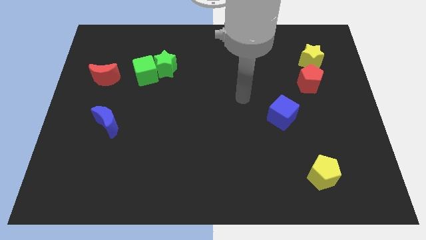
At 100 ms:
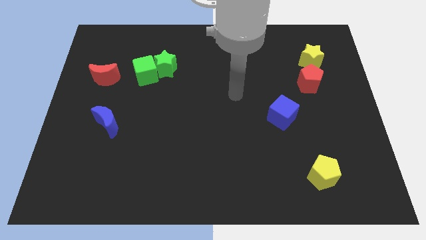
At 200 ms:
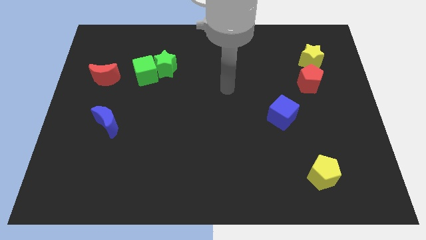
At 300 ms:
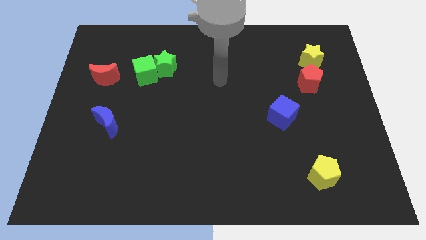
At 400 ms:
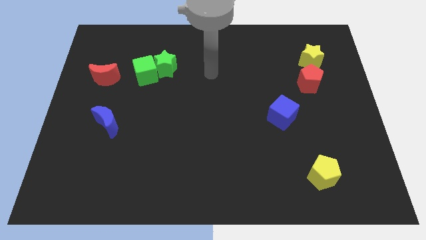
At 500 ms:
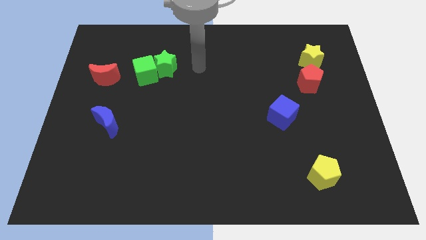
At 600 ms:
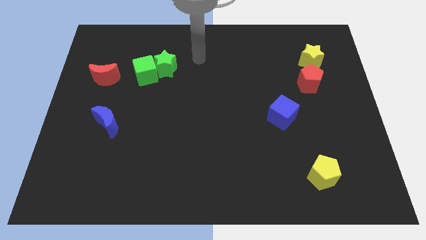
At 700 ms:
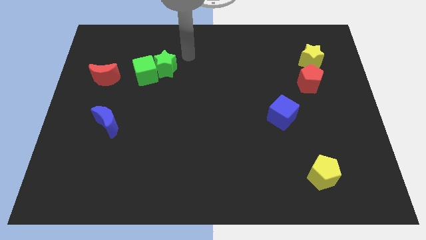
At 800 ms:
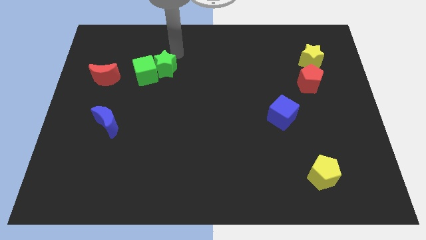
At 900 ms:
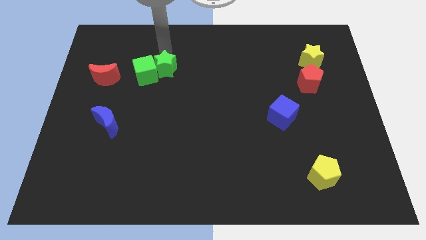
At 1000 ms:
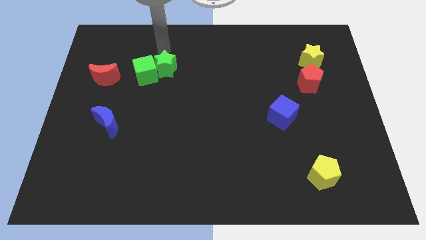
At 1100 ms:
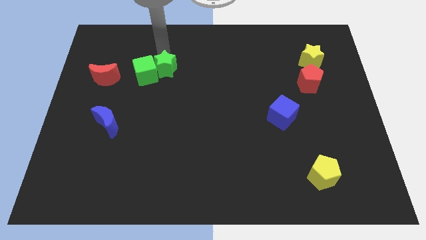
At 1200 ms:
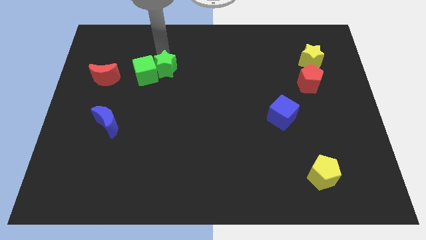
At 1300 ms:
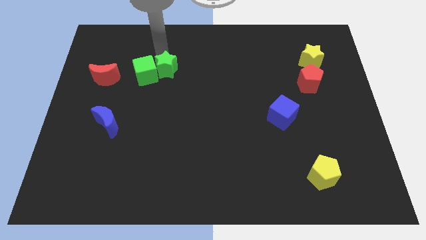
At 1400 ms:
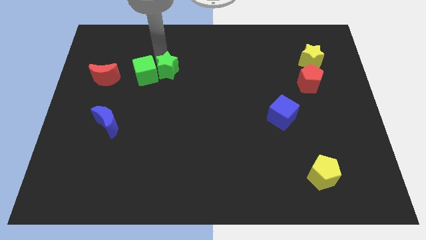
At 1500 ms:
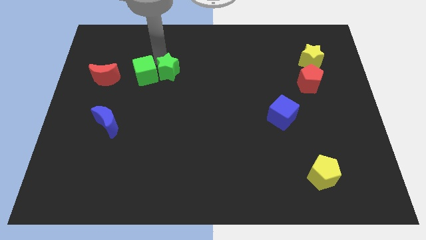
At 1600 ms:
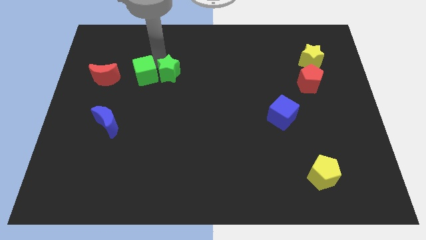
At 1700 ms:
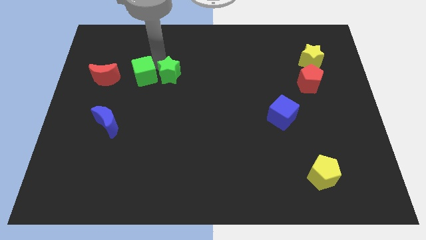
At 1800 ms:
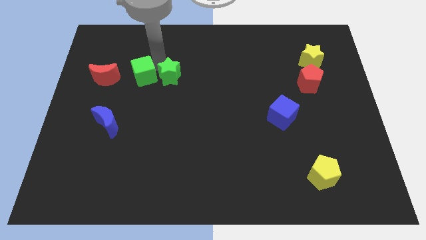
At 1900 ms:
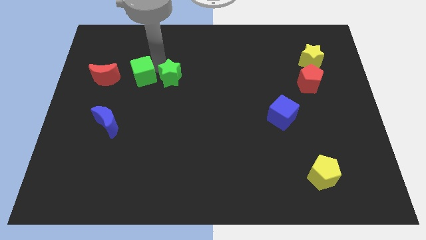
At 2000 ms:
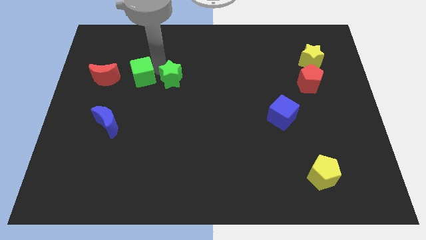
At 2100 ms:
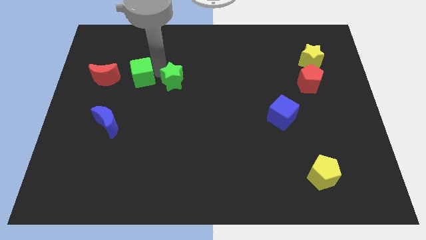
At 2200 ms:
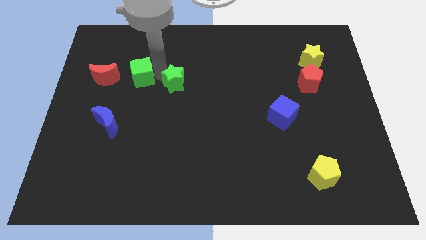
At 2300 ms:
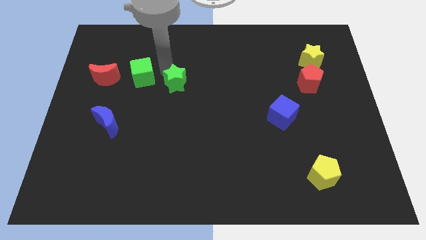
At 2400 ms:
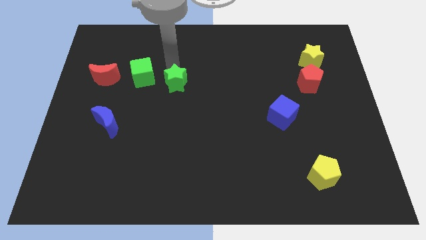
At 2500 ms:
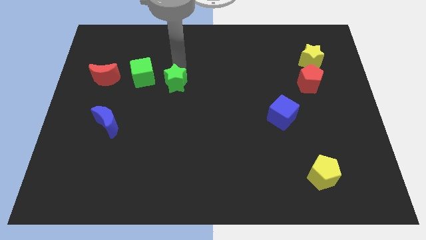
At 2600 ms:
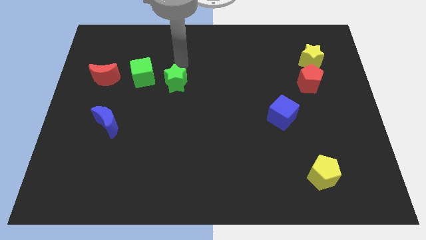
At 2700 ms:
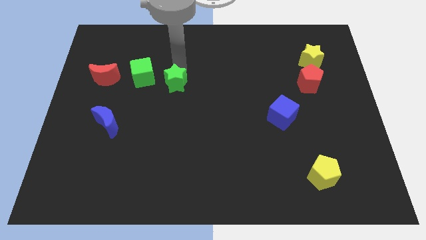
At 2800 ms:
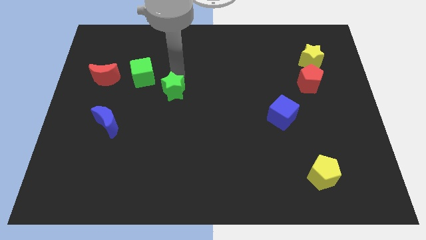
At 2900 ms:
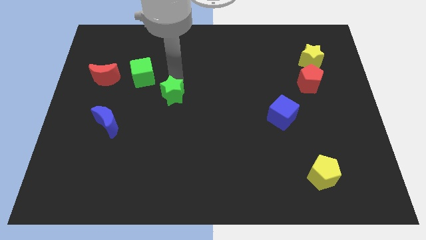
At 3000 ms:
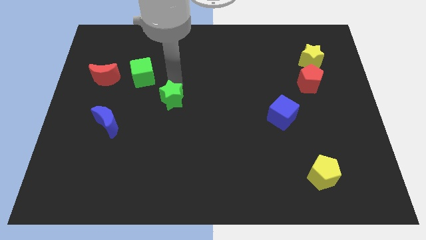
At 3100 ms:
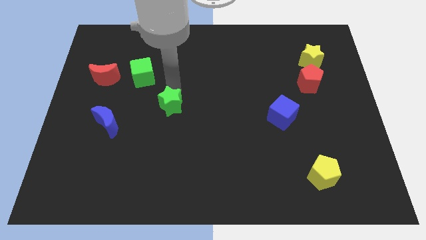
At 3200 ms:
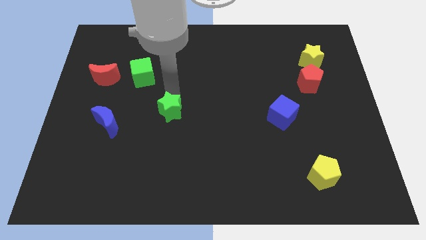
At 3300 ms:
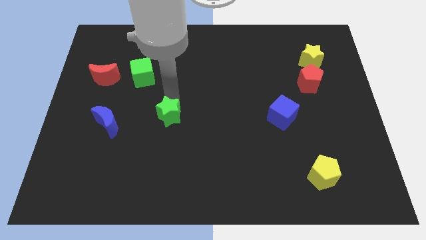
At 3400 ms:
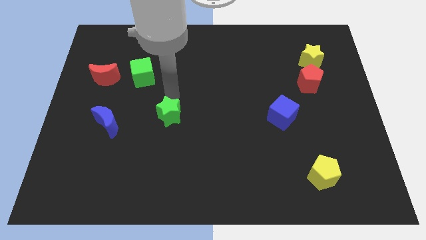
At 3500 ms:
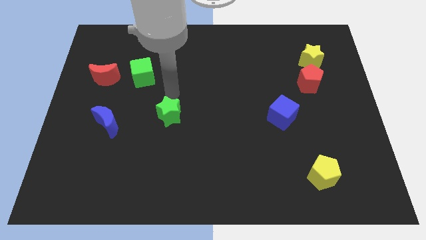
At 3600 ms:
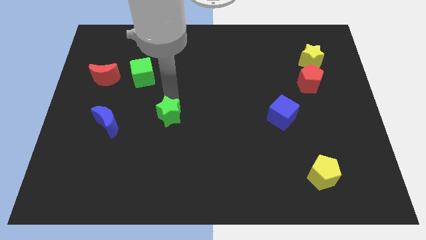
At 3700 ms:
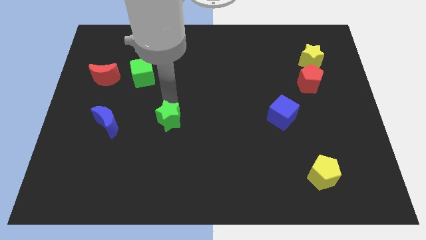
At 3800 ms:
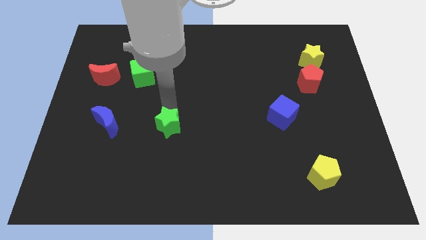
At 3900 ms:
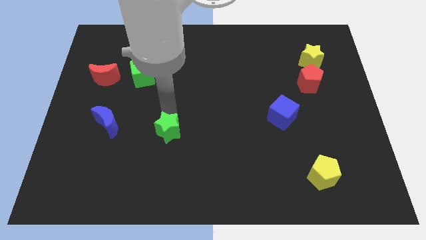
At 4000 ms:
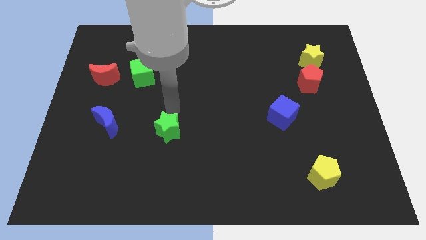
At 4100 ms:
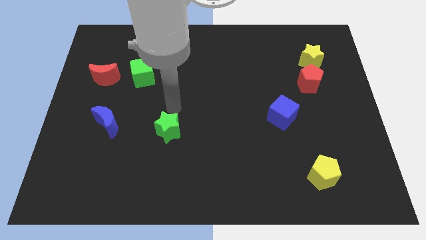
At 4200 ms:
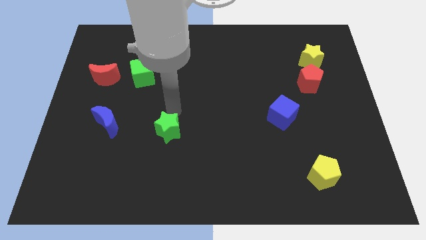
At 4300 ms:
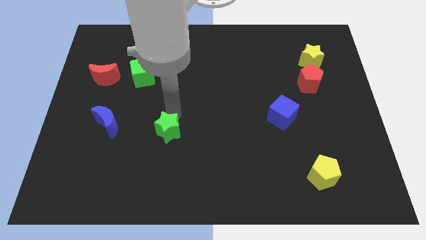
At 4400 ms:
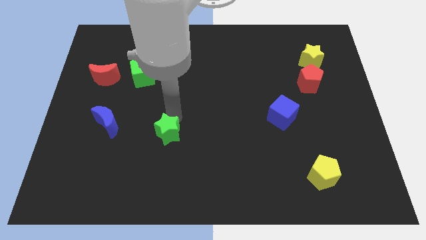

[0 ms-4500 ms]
slide the green star downwards

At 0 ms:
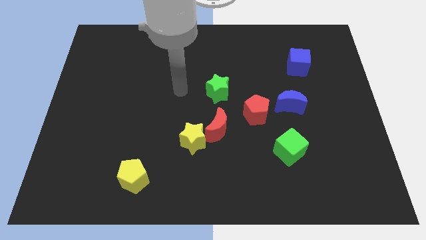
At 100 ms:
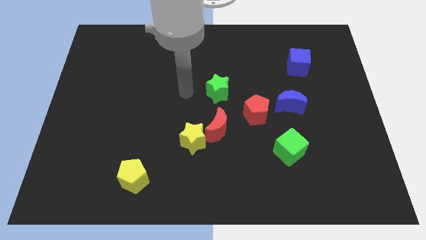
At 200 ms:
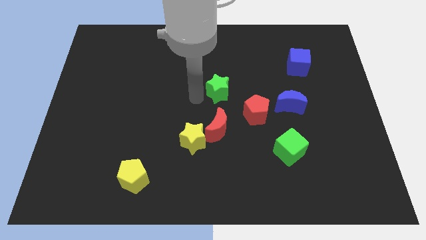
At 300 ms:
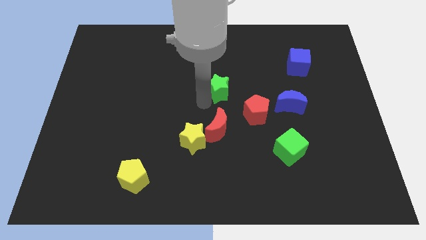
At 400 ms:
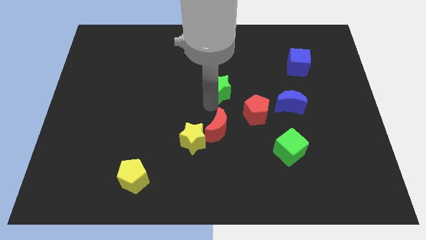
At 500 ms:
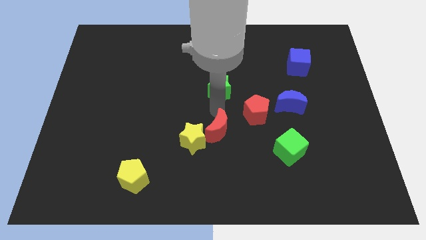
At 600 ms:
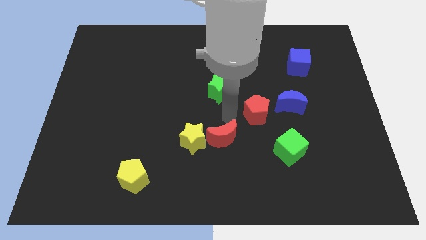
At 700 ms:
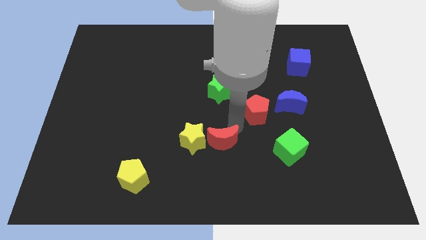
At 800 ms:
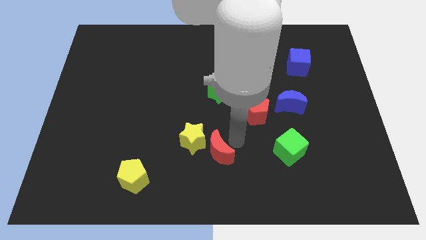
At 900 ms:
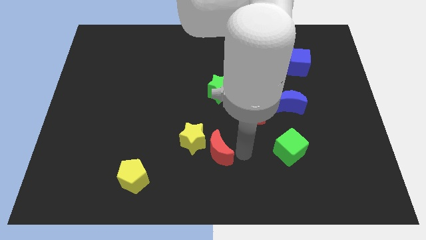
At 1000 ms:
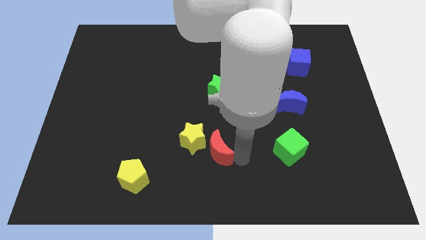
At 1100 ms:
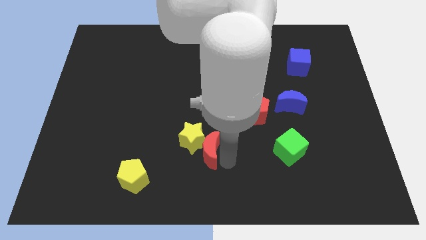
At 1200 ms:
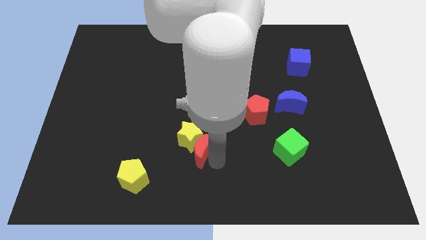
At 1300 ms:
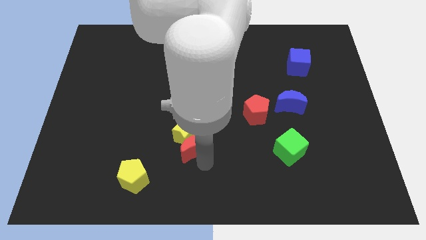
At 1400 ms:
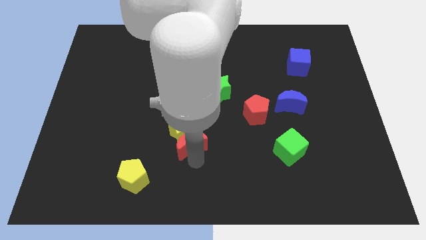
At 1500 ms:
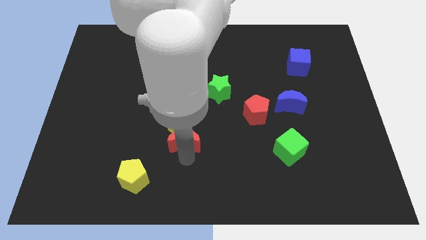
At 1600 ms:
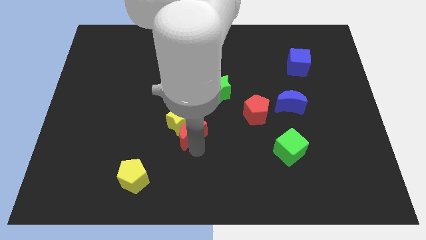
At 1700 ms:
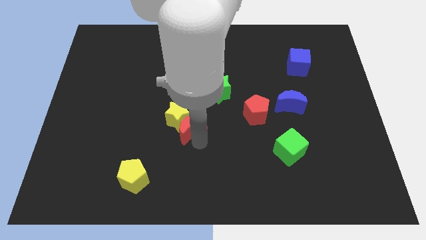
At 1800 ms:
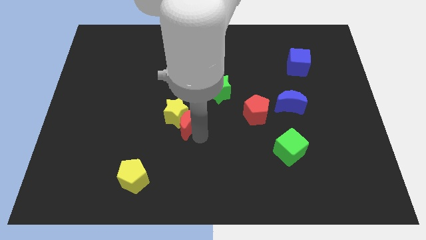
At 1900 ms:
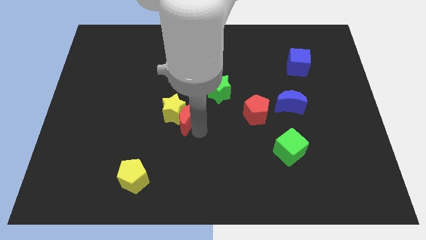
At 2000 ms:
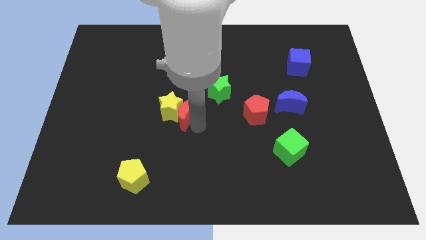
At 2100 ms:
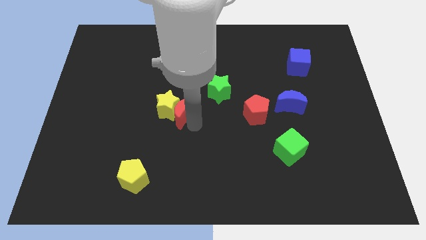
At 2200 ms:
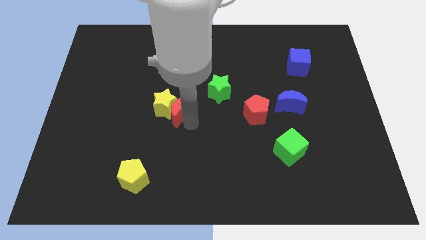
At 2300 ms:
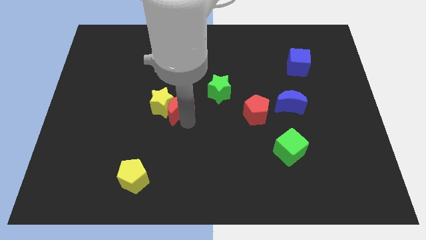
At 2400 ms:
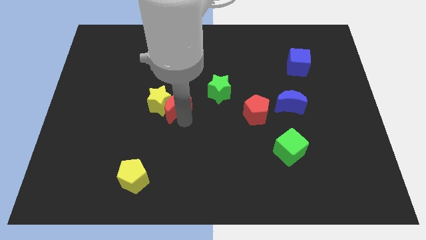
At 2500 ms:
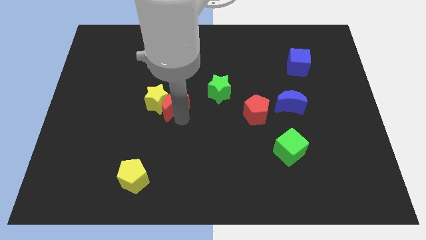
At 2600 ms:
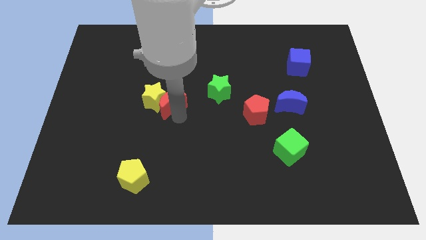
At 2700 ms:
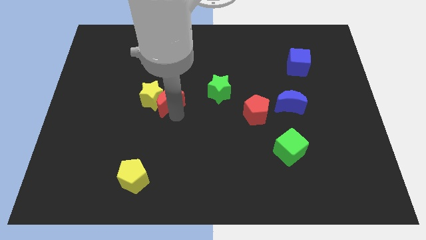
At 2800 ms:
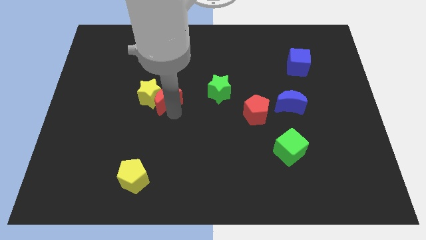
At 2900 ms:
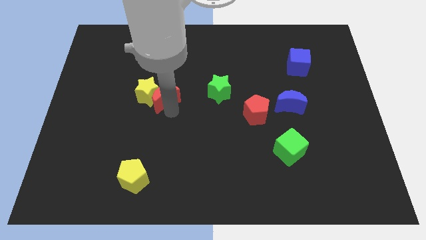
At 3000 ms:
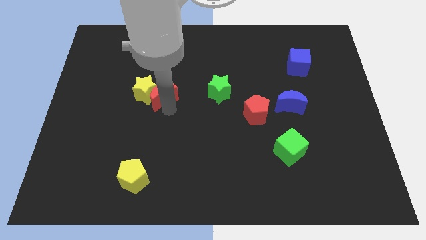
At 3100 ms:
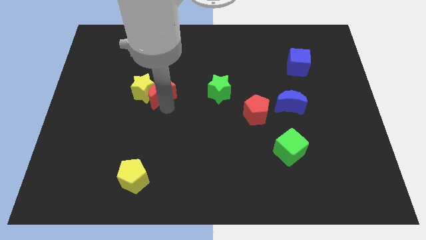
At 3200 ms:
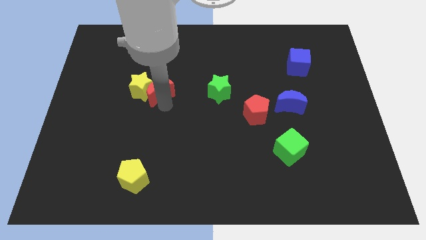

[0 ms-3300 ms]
slide the yellow star upwards and to the left diagonally

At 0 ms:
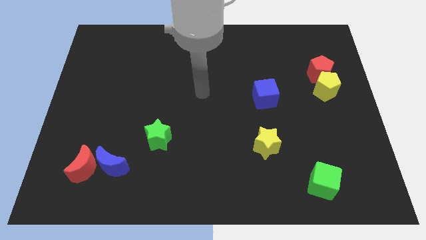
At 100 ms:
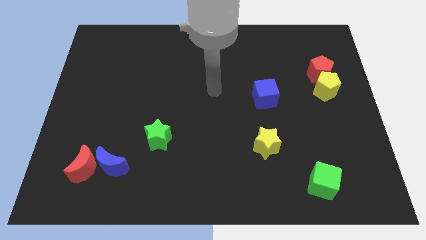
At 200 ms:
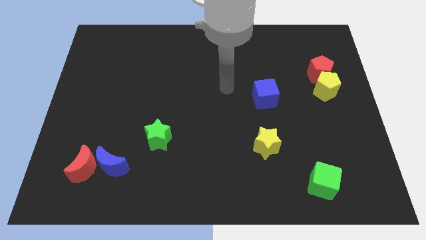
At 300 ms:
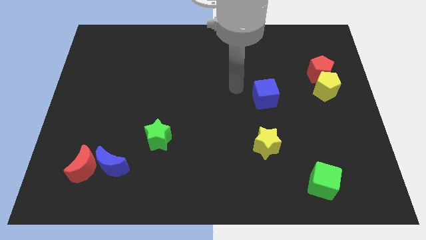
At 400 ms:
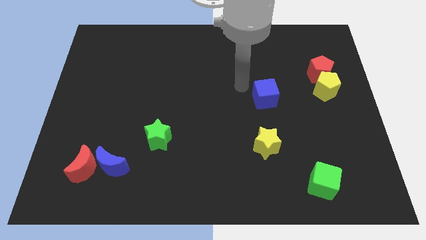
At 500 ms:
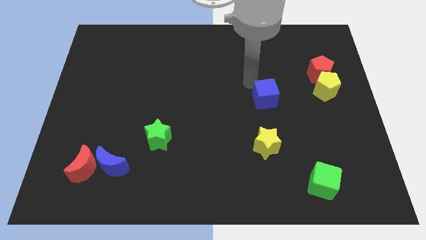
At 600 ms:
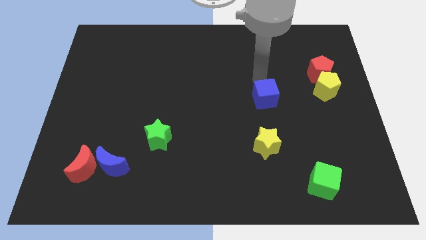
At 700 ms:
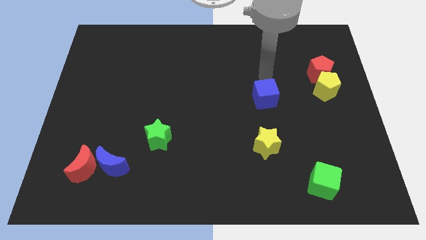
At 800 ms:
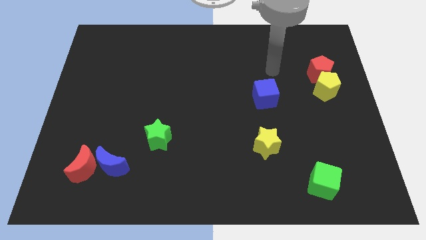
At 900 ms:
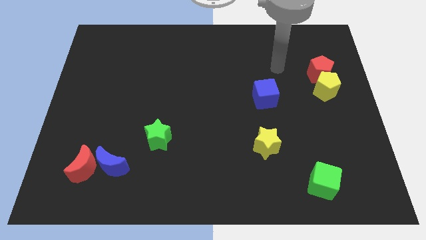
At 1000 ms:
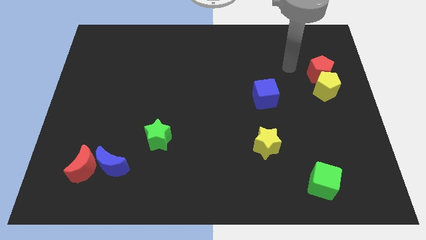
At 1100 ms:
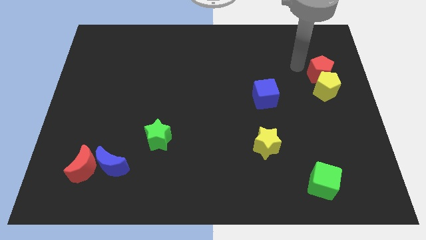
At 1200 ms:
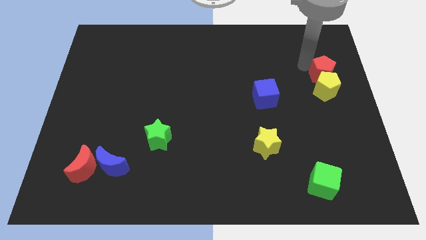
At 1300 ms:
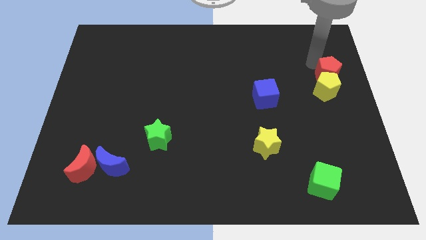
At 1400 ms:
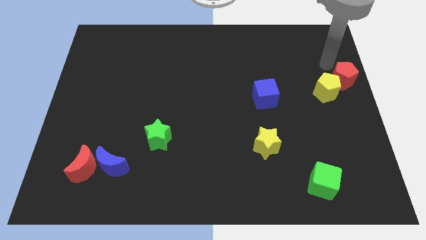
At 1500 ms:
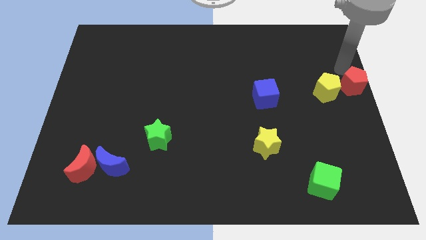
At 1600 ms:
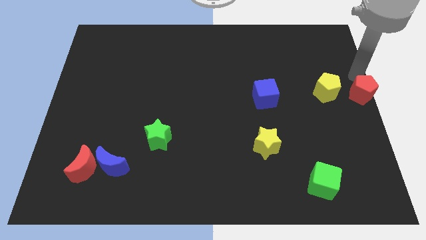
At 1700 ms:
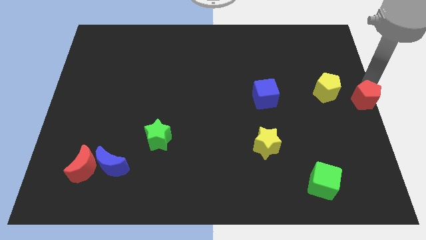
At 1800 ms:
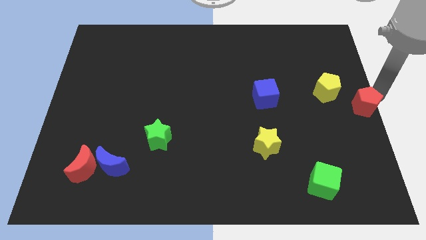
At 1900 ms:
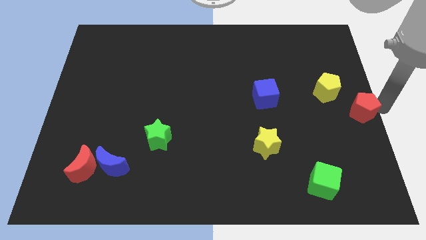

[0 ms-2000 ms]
slightly slide the red pentagon down
